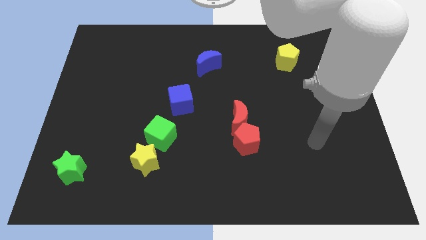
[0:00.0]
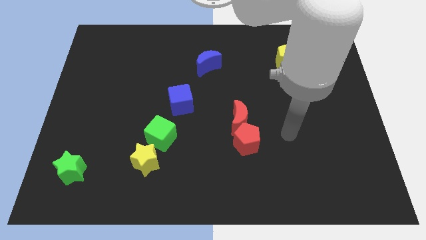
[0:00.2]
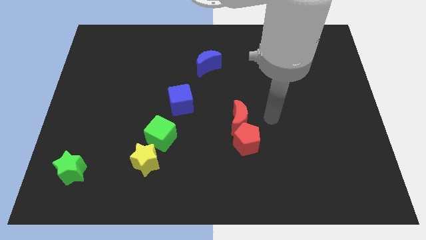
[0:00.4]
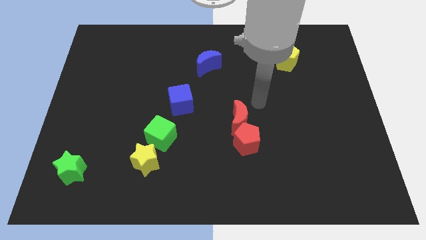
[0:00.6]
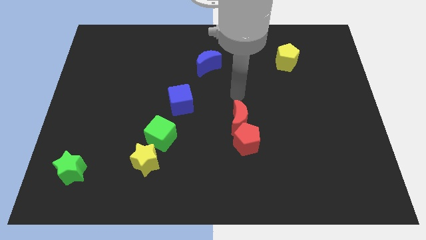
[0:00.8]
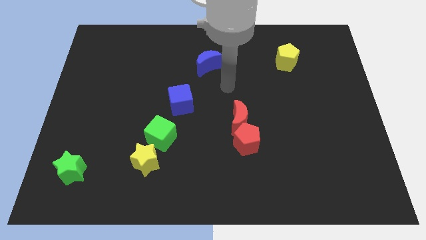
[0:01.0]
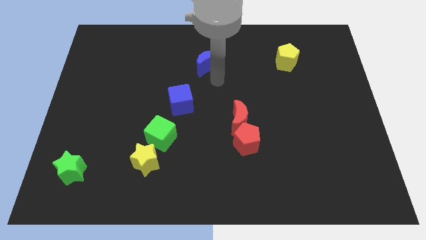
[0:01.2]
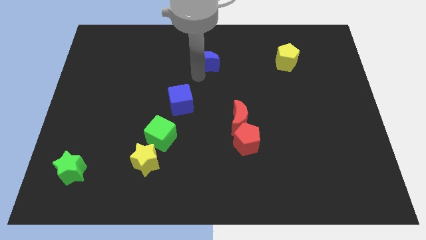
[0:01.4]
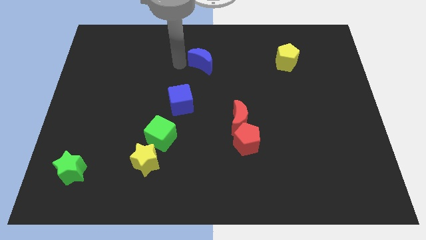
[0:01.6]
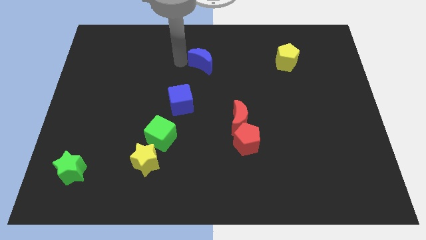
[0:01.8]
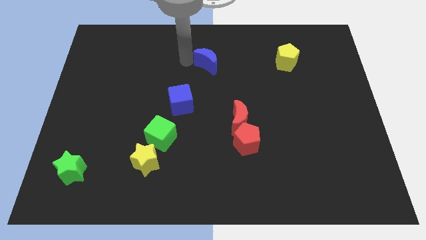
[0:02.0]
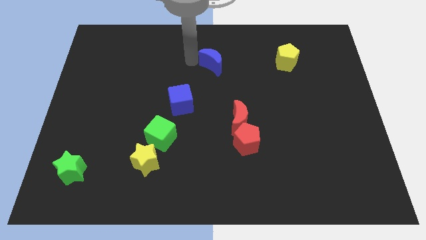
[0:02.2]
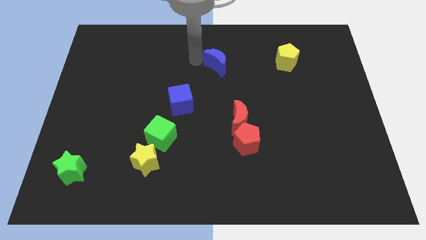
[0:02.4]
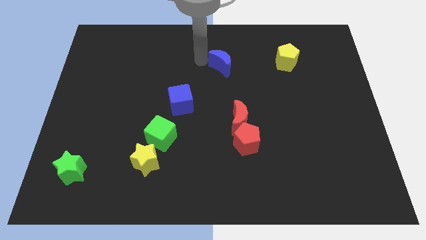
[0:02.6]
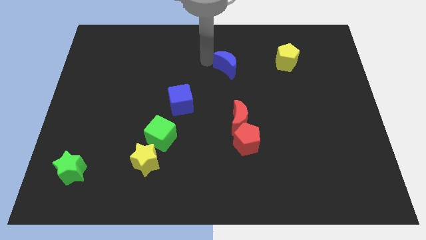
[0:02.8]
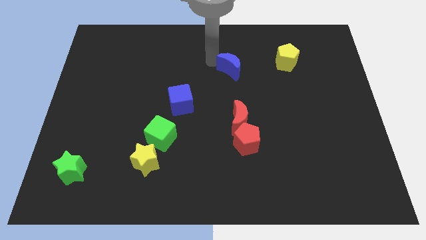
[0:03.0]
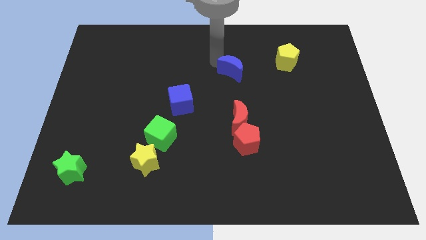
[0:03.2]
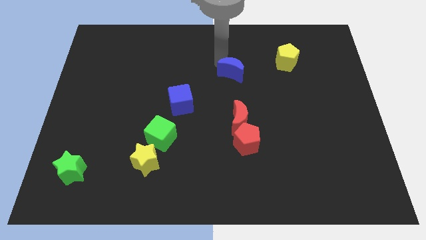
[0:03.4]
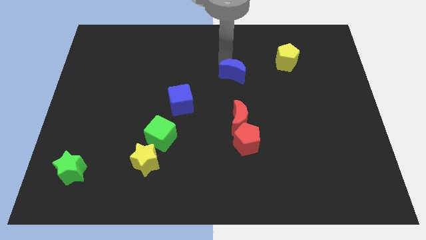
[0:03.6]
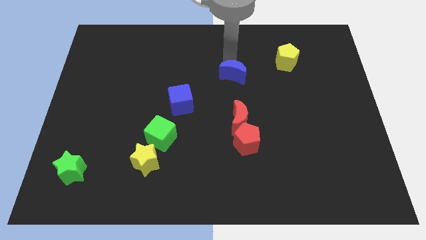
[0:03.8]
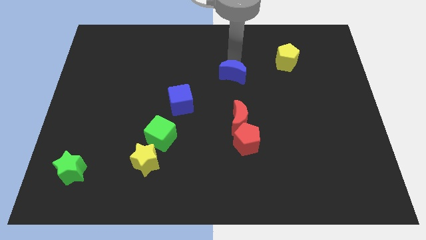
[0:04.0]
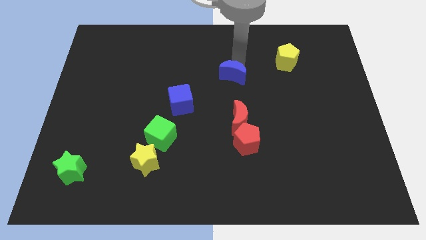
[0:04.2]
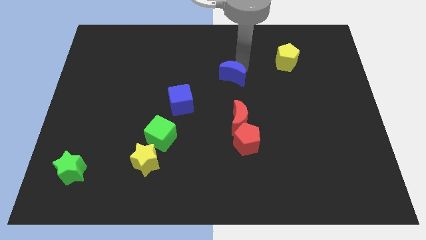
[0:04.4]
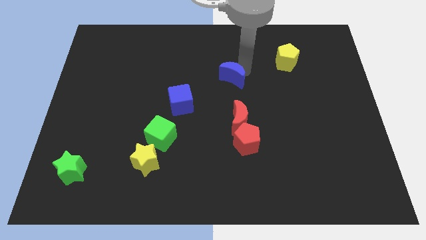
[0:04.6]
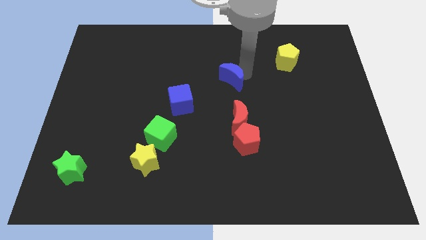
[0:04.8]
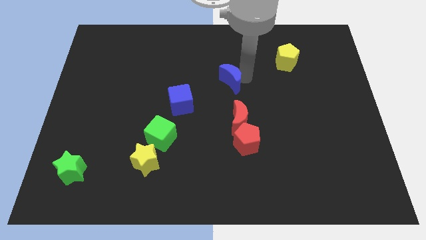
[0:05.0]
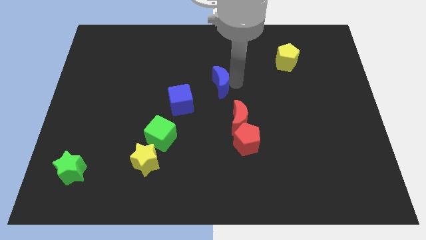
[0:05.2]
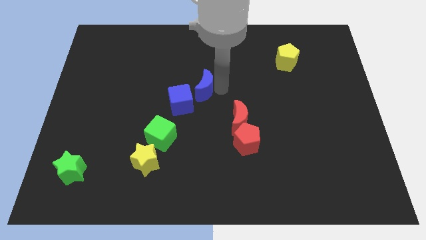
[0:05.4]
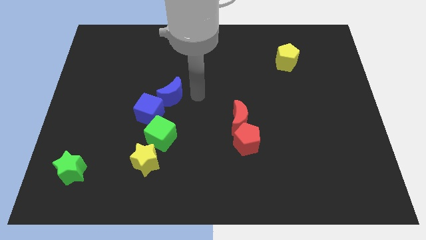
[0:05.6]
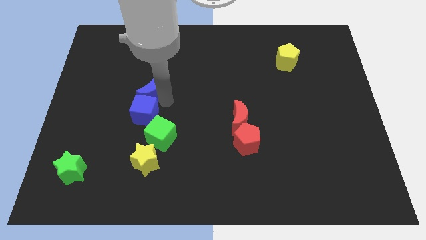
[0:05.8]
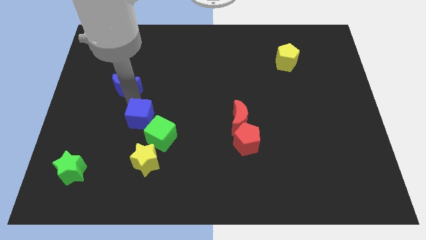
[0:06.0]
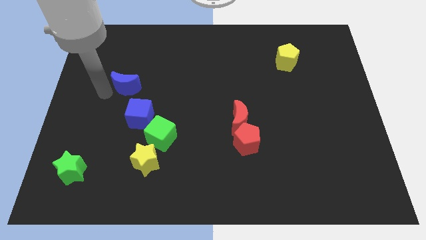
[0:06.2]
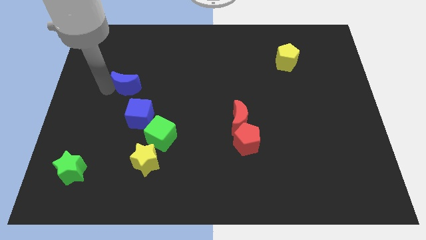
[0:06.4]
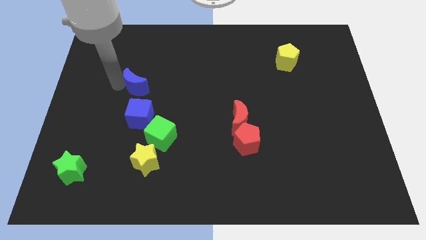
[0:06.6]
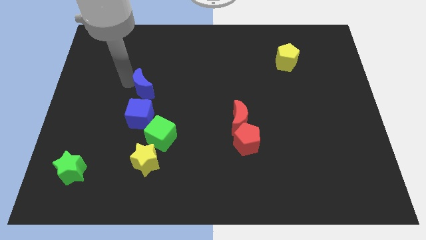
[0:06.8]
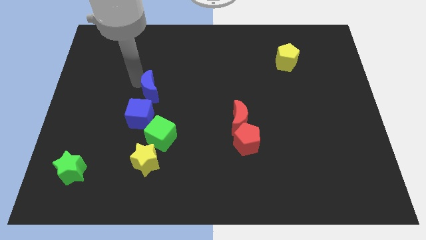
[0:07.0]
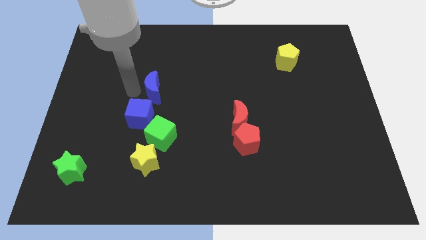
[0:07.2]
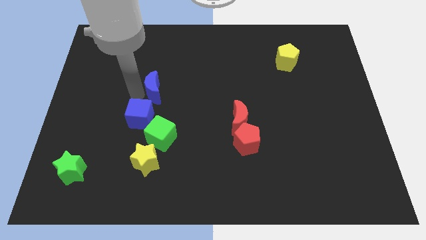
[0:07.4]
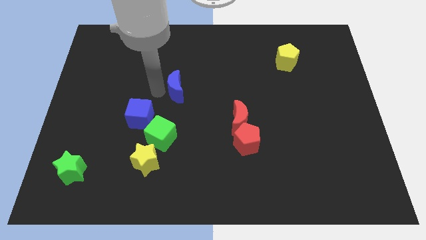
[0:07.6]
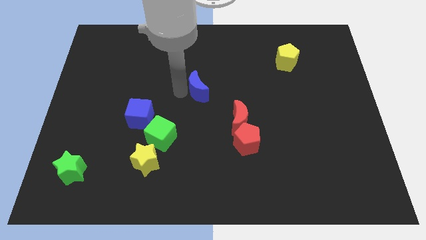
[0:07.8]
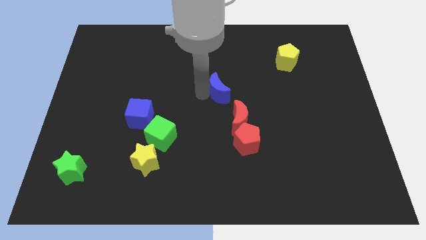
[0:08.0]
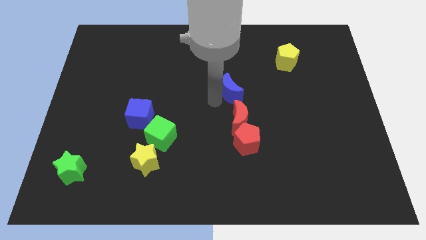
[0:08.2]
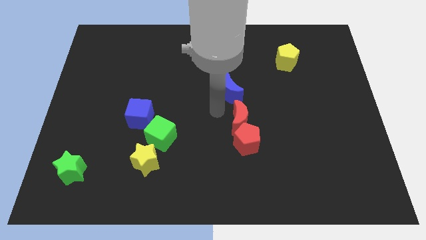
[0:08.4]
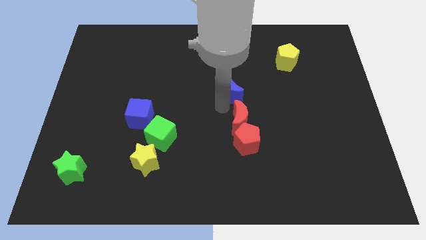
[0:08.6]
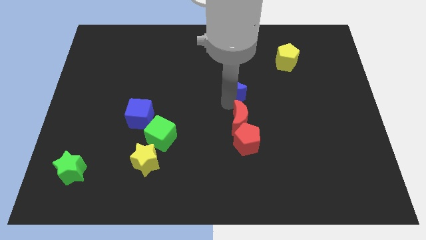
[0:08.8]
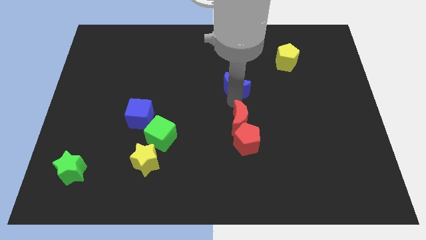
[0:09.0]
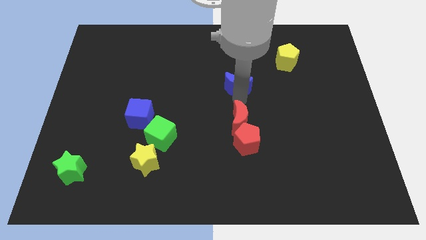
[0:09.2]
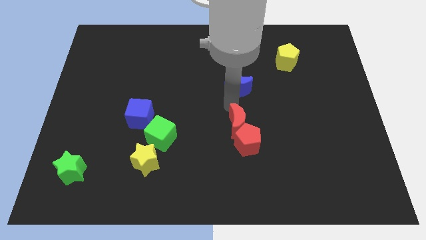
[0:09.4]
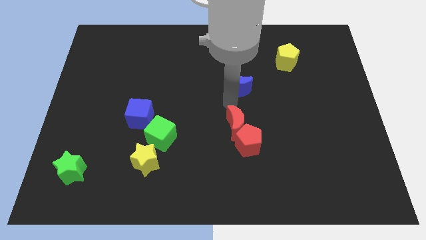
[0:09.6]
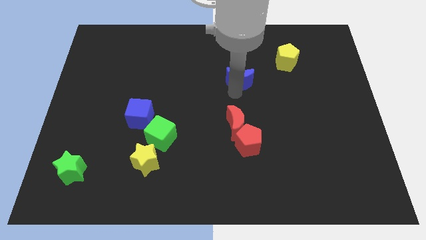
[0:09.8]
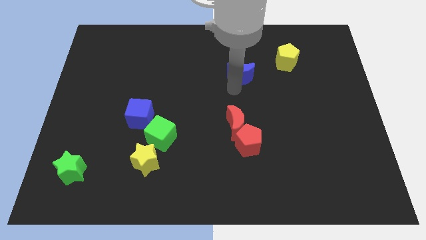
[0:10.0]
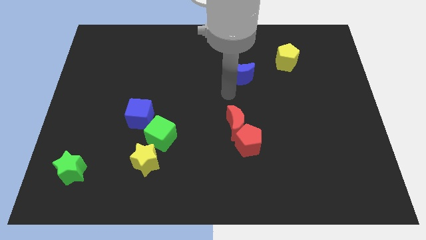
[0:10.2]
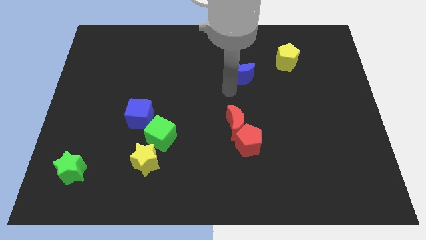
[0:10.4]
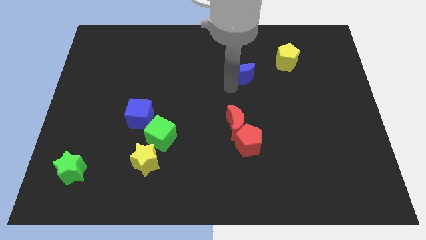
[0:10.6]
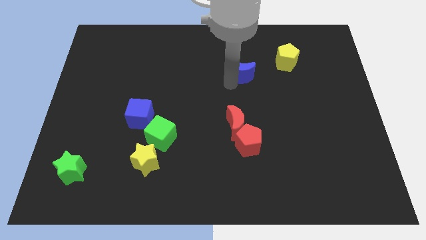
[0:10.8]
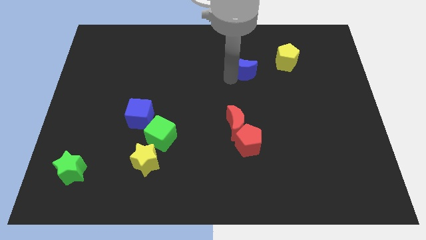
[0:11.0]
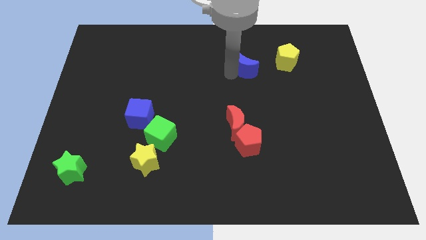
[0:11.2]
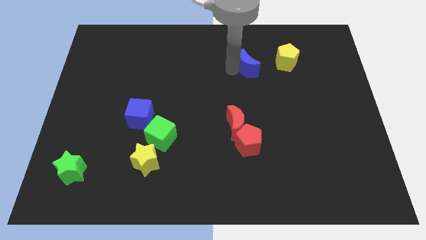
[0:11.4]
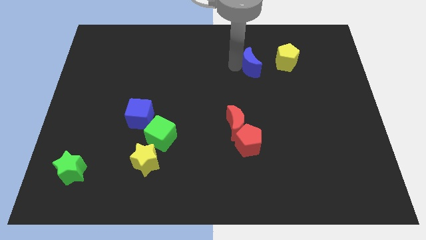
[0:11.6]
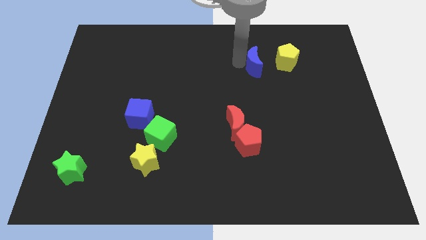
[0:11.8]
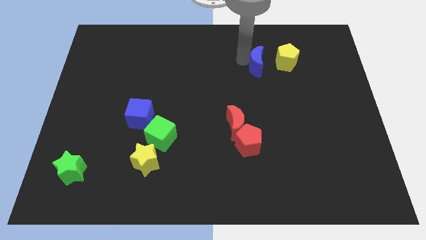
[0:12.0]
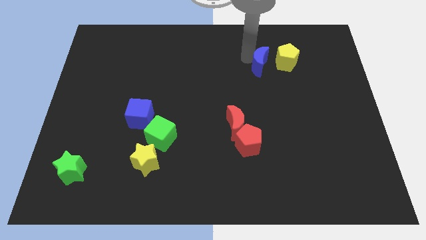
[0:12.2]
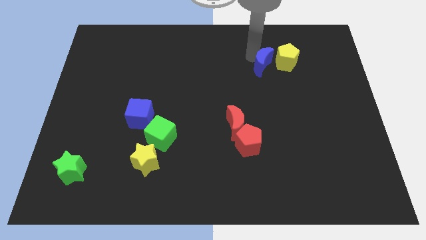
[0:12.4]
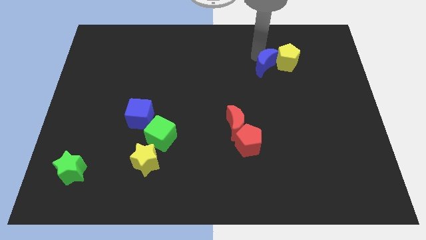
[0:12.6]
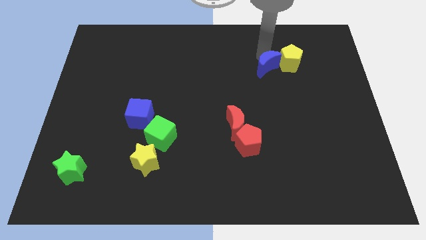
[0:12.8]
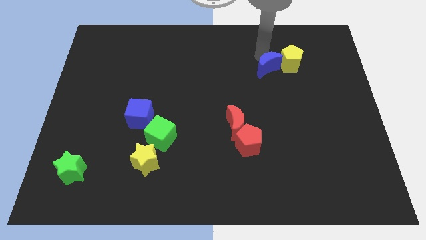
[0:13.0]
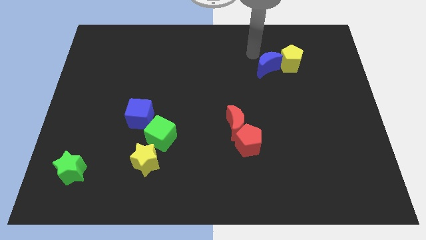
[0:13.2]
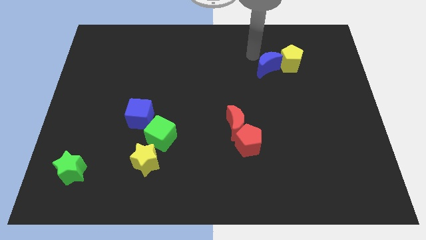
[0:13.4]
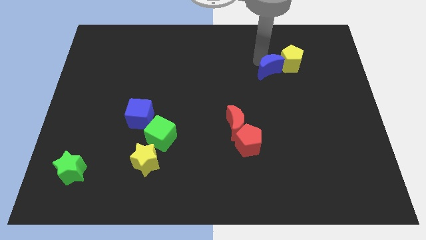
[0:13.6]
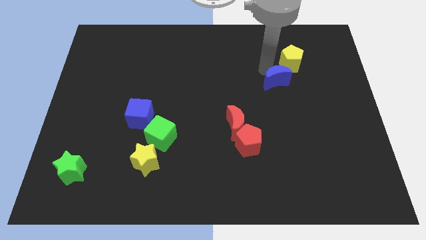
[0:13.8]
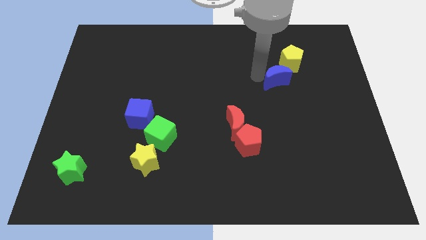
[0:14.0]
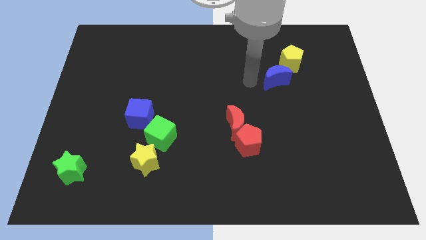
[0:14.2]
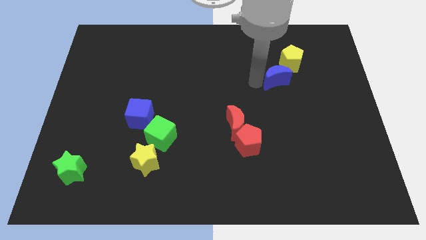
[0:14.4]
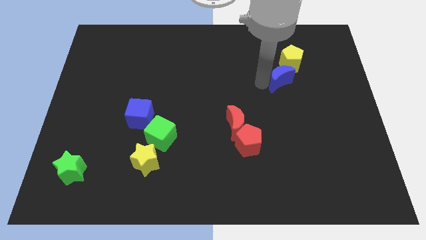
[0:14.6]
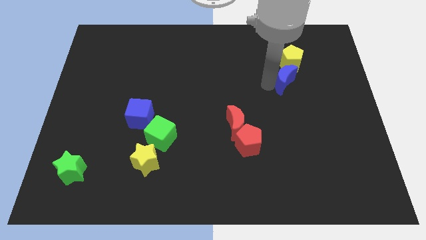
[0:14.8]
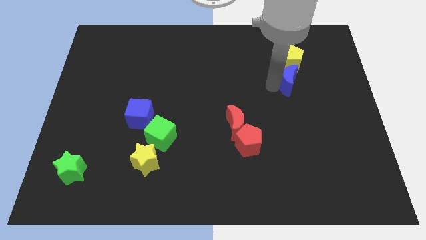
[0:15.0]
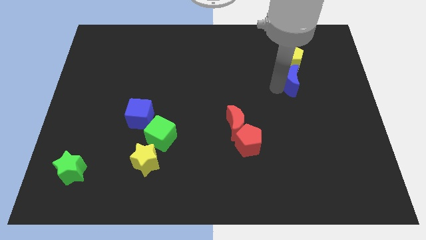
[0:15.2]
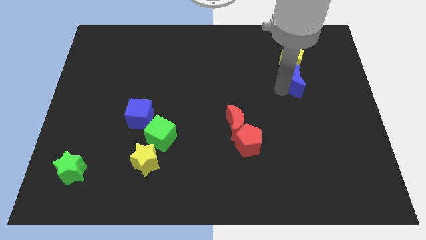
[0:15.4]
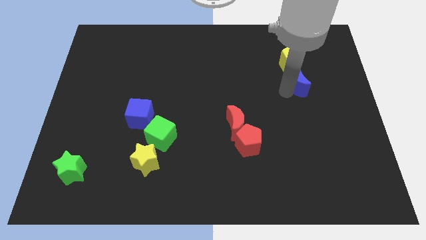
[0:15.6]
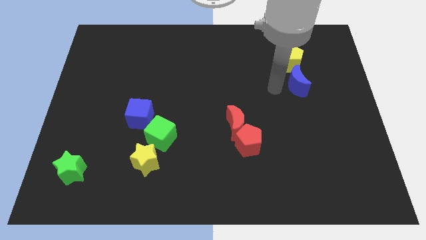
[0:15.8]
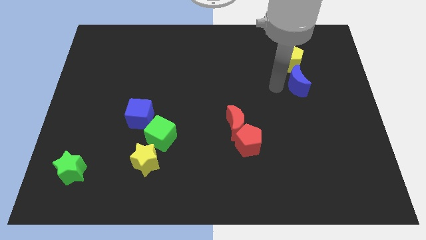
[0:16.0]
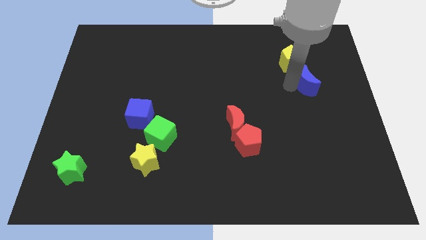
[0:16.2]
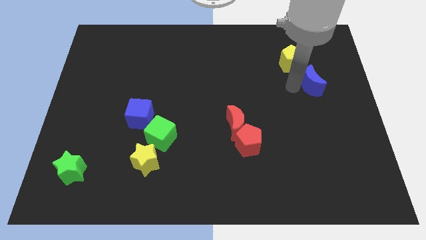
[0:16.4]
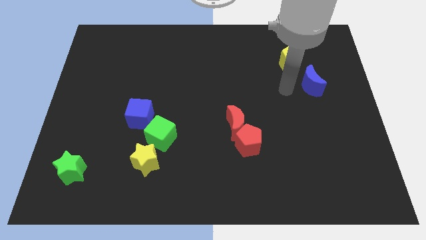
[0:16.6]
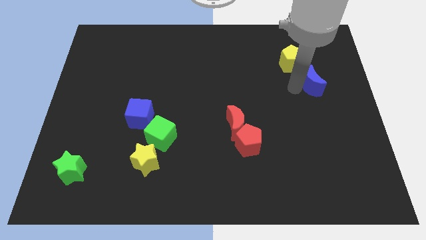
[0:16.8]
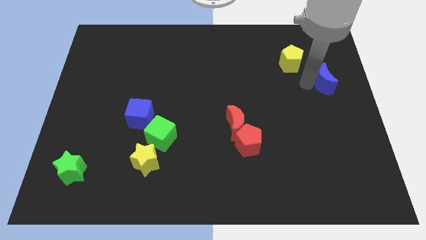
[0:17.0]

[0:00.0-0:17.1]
push the blue moon to the right side
